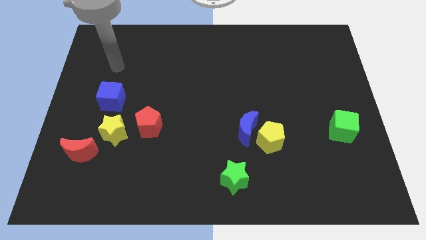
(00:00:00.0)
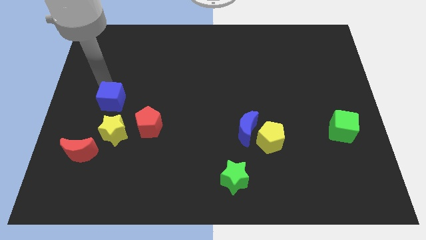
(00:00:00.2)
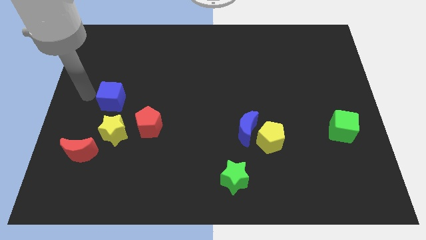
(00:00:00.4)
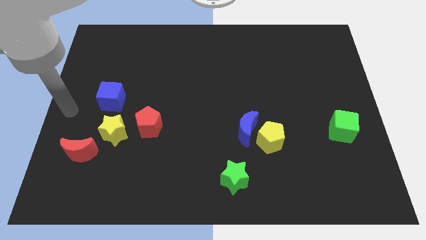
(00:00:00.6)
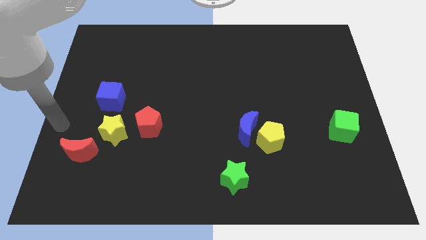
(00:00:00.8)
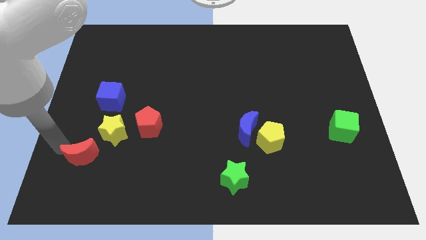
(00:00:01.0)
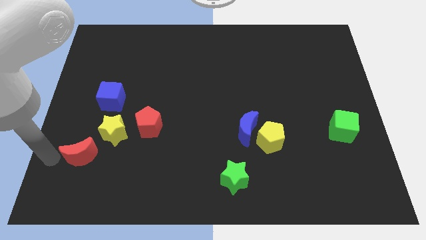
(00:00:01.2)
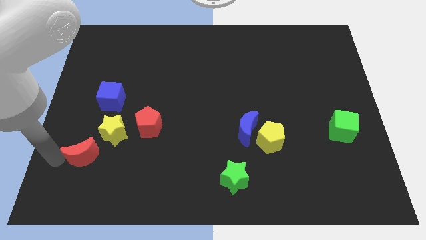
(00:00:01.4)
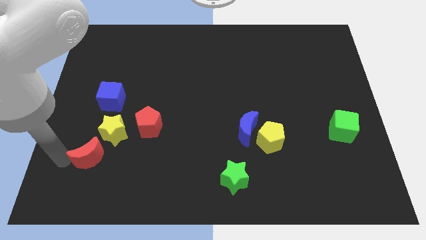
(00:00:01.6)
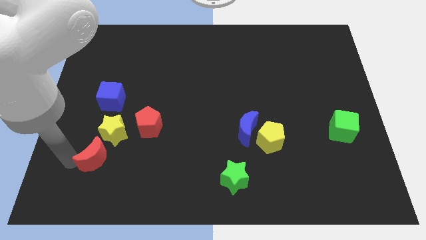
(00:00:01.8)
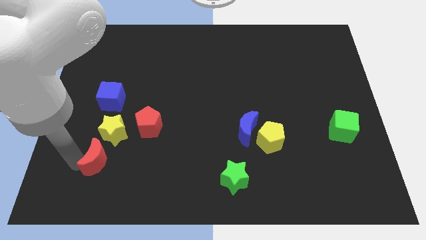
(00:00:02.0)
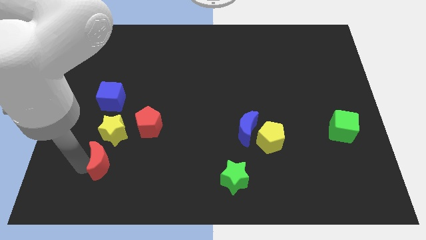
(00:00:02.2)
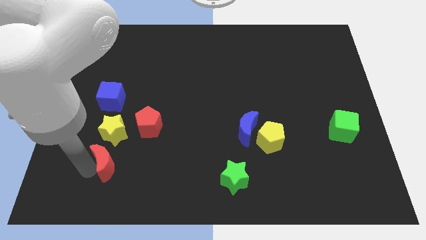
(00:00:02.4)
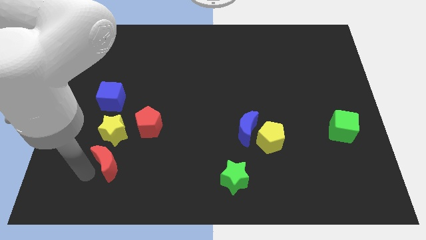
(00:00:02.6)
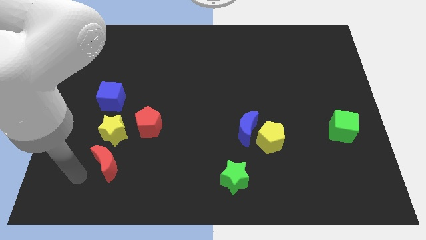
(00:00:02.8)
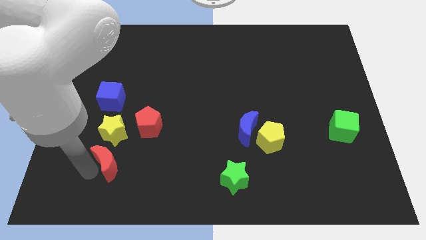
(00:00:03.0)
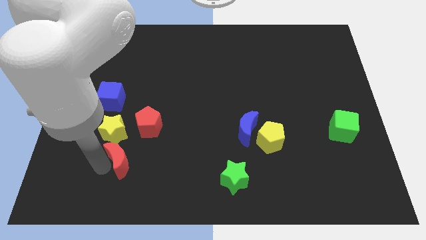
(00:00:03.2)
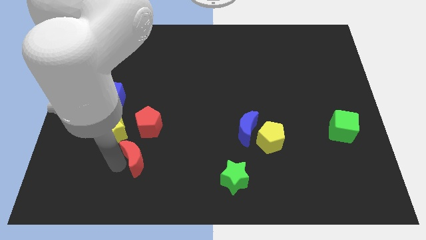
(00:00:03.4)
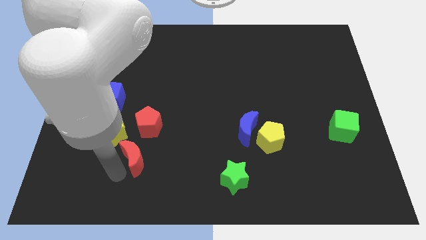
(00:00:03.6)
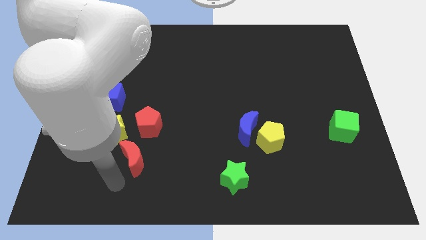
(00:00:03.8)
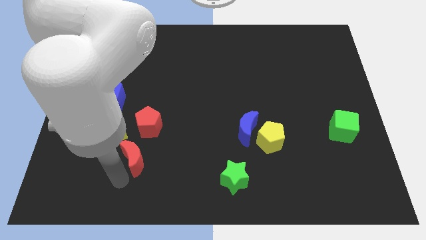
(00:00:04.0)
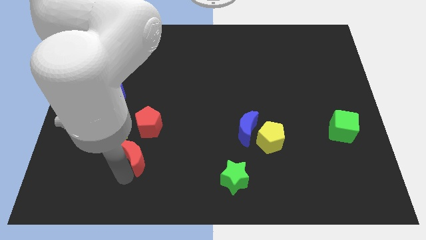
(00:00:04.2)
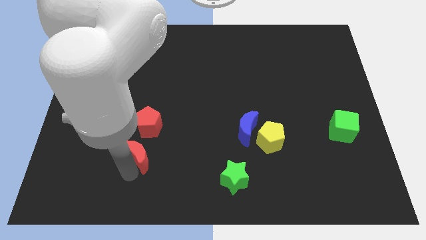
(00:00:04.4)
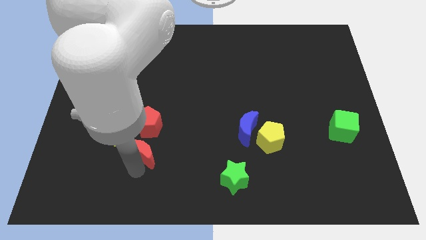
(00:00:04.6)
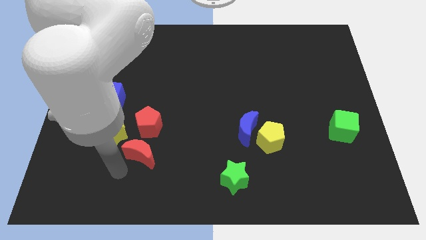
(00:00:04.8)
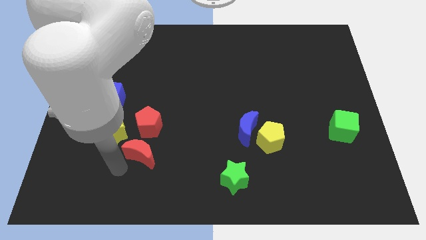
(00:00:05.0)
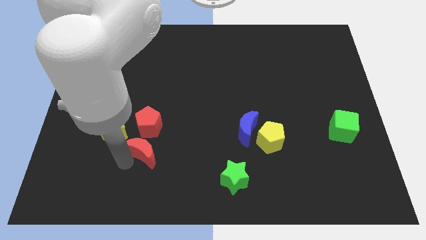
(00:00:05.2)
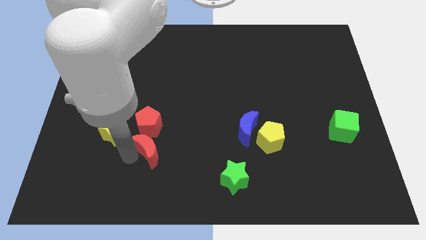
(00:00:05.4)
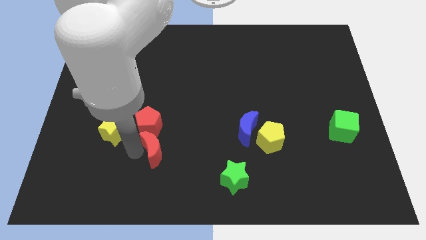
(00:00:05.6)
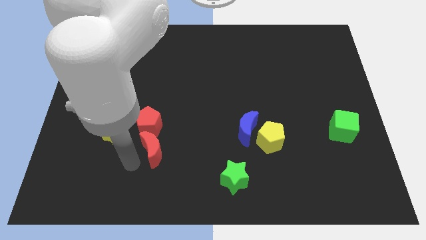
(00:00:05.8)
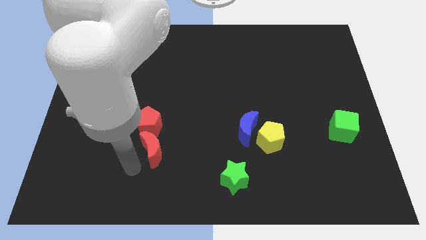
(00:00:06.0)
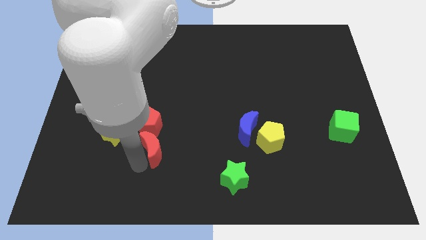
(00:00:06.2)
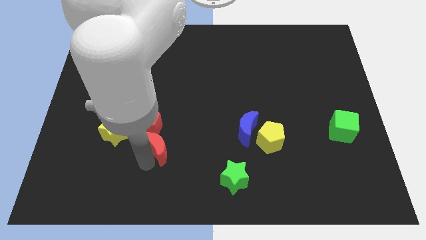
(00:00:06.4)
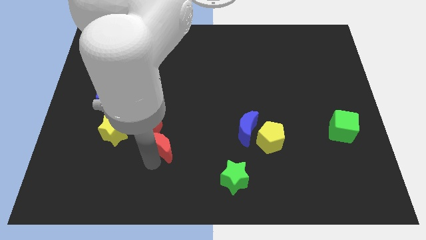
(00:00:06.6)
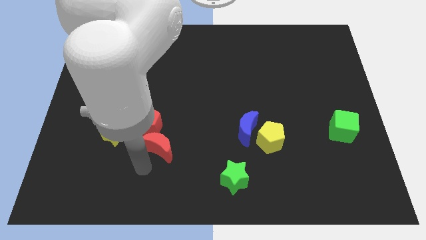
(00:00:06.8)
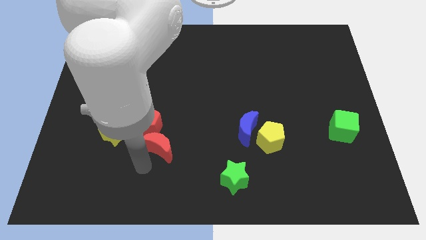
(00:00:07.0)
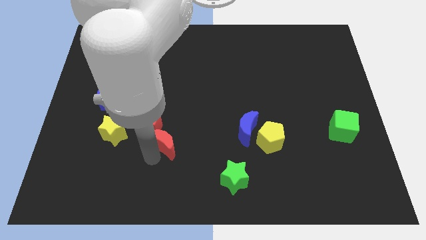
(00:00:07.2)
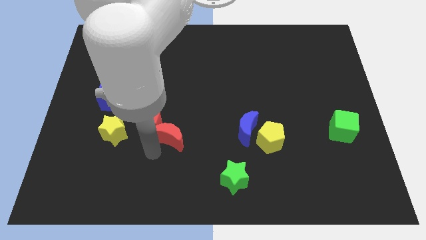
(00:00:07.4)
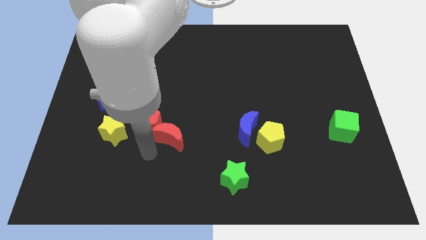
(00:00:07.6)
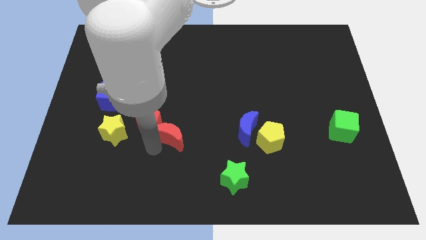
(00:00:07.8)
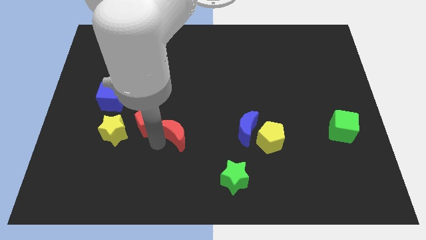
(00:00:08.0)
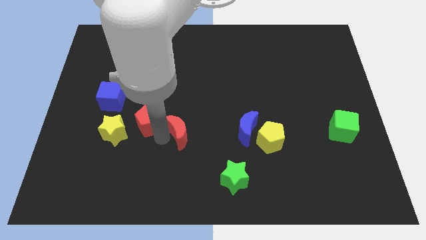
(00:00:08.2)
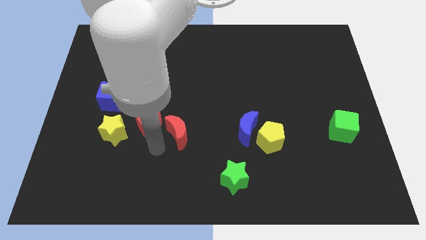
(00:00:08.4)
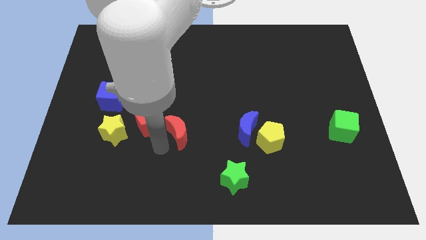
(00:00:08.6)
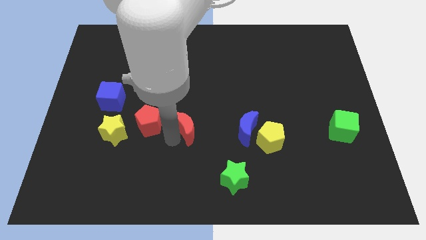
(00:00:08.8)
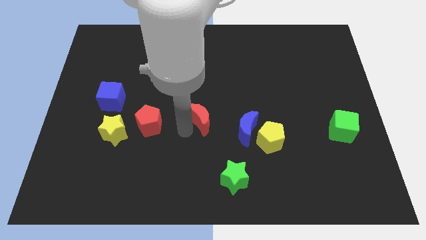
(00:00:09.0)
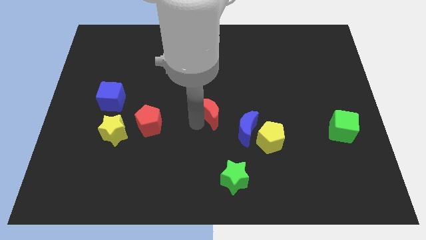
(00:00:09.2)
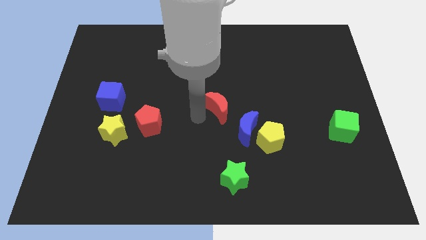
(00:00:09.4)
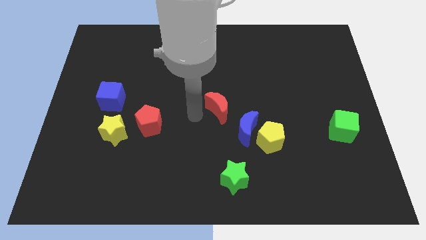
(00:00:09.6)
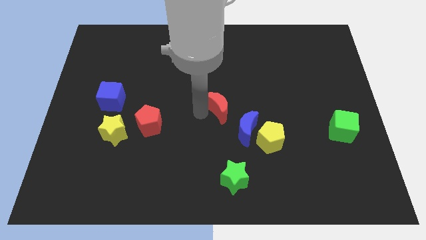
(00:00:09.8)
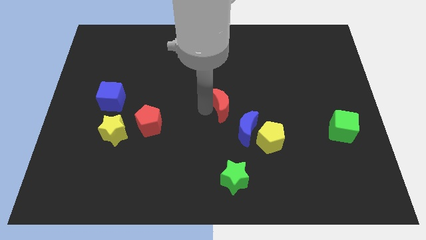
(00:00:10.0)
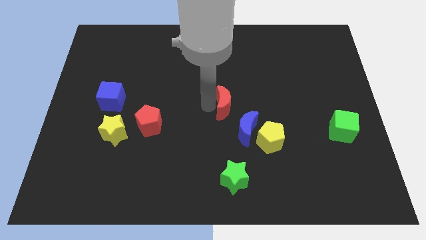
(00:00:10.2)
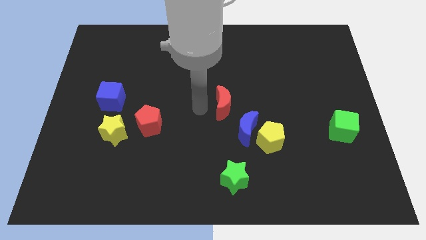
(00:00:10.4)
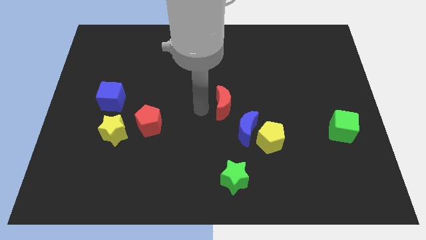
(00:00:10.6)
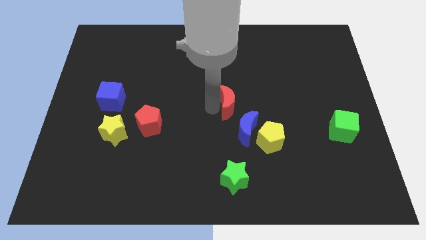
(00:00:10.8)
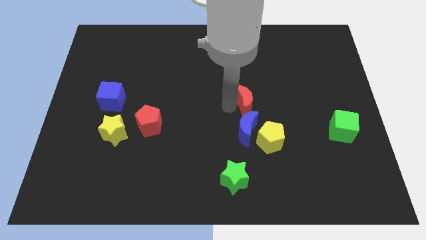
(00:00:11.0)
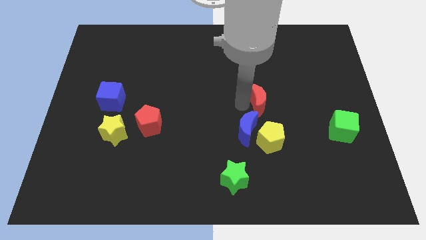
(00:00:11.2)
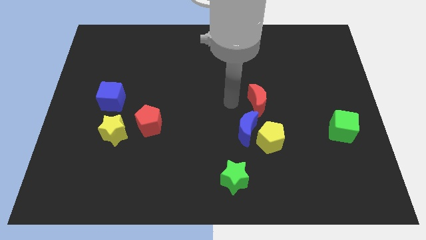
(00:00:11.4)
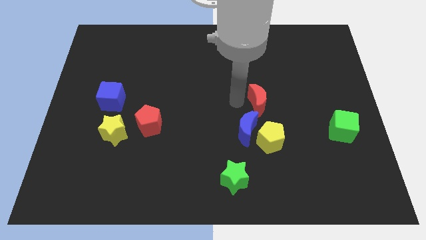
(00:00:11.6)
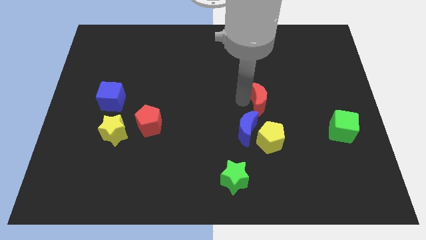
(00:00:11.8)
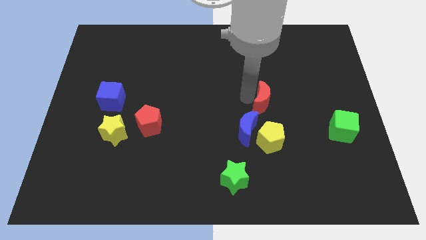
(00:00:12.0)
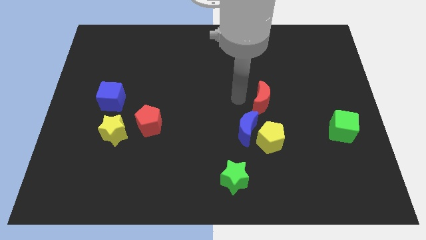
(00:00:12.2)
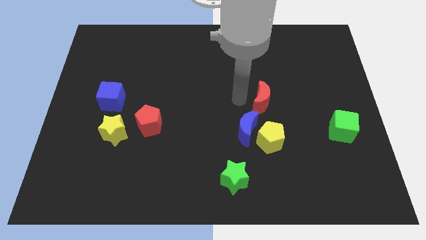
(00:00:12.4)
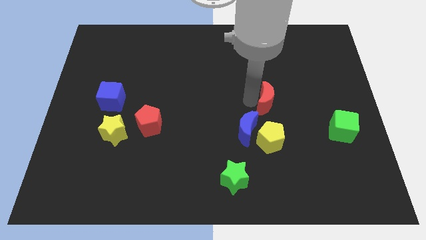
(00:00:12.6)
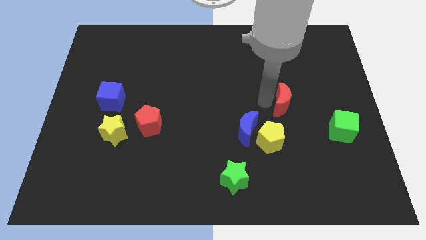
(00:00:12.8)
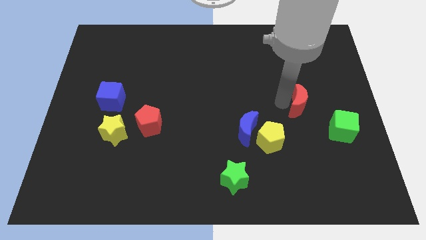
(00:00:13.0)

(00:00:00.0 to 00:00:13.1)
put the red moon diagonally up and to the left of the green cube

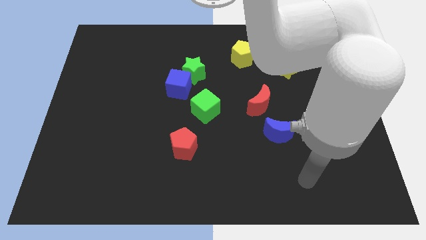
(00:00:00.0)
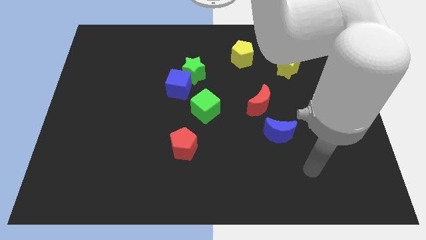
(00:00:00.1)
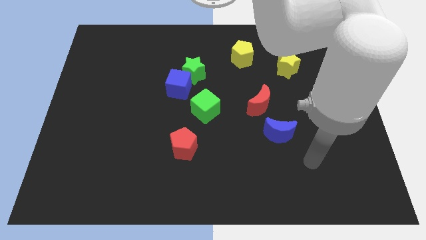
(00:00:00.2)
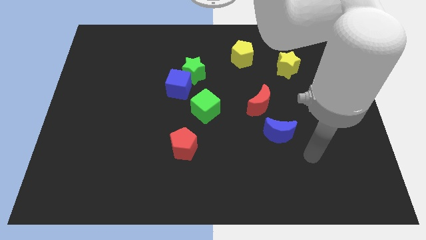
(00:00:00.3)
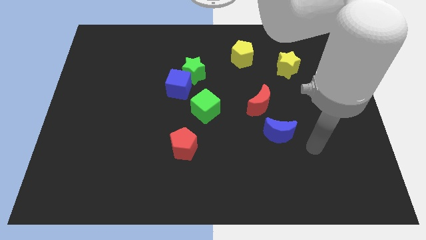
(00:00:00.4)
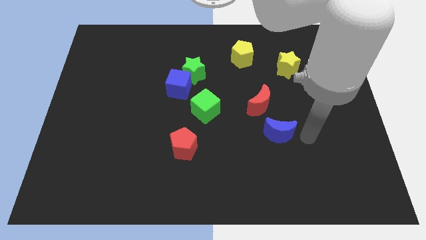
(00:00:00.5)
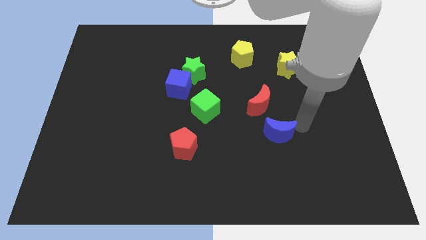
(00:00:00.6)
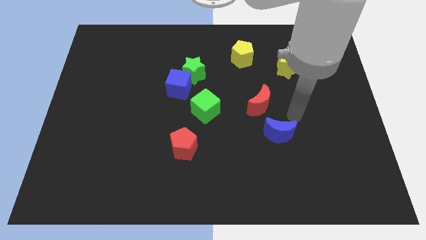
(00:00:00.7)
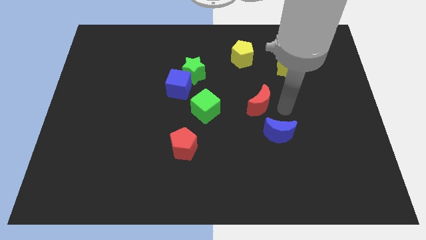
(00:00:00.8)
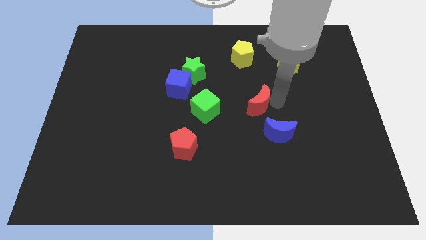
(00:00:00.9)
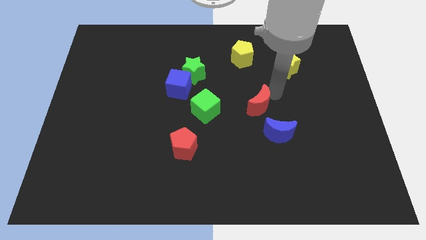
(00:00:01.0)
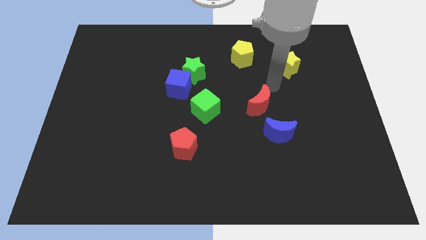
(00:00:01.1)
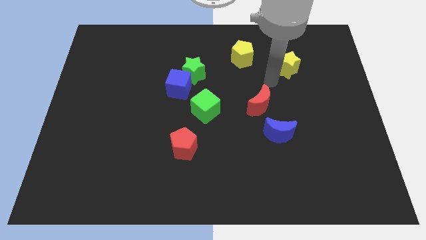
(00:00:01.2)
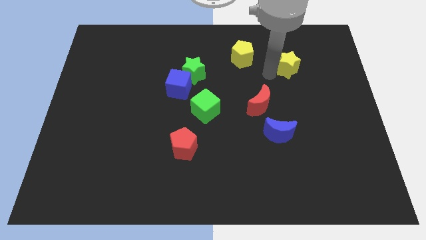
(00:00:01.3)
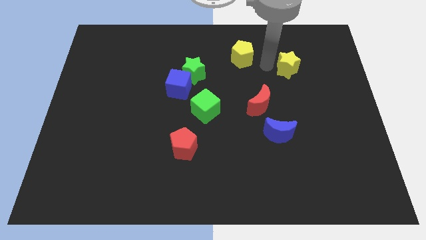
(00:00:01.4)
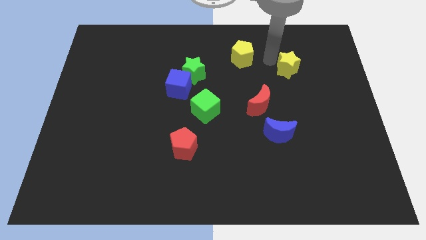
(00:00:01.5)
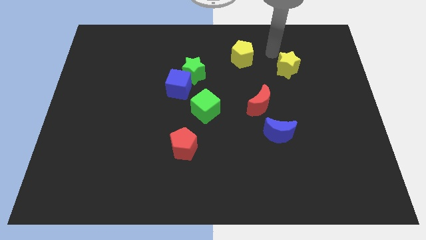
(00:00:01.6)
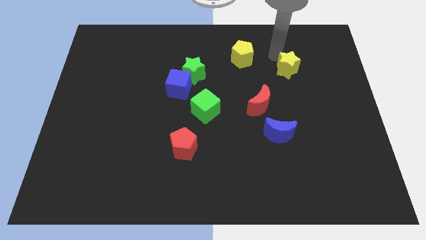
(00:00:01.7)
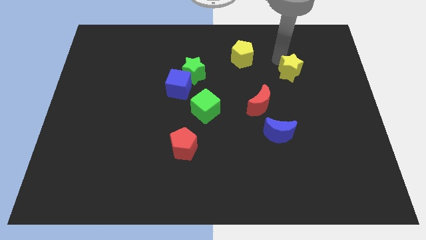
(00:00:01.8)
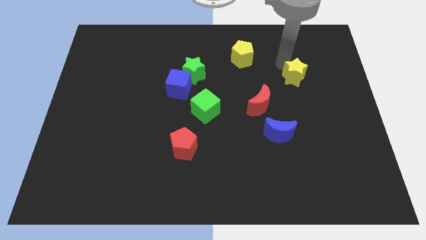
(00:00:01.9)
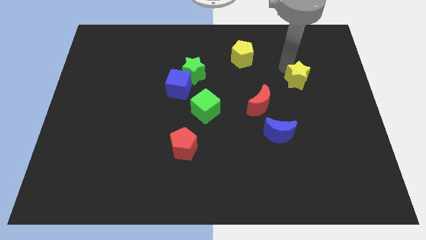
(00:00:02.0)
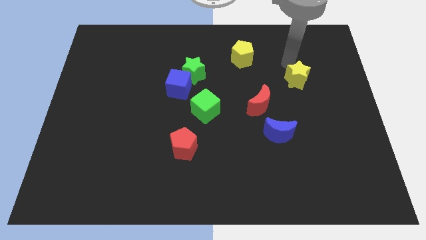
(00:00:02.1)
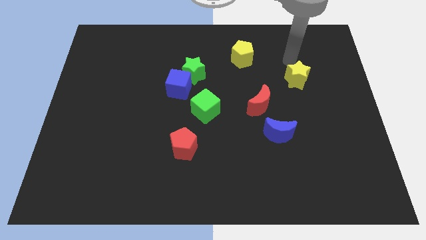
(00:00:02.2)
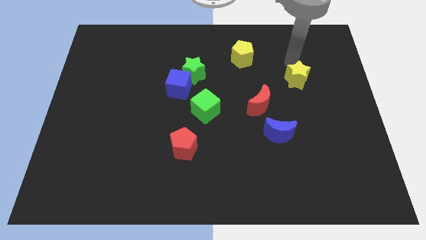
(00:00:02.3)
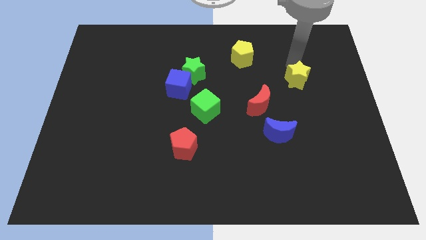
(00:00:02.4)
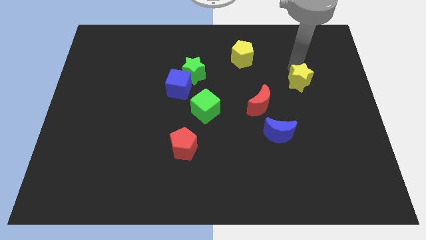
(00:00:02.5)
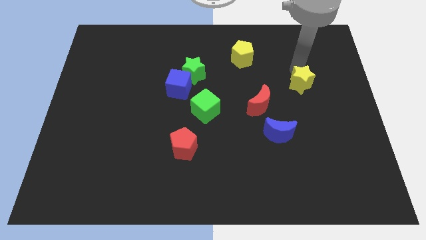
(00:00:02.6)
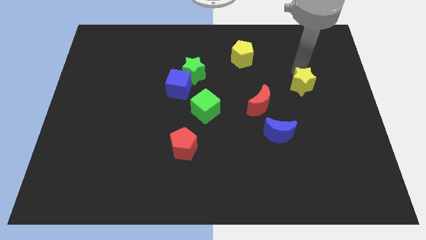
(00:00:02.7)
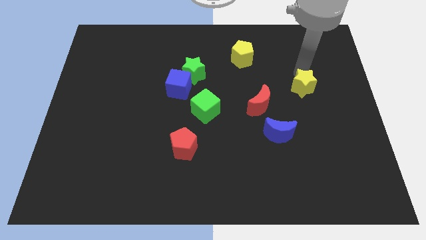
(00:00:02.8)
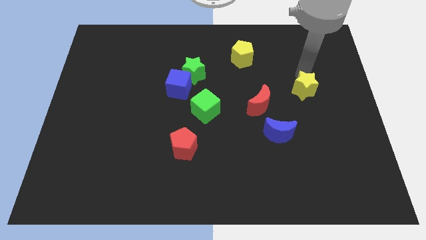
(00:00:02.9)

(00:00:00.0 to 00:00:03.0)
put the yellow star to the right of the red moon
